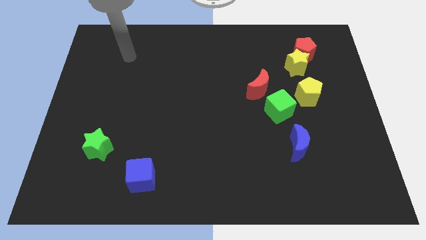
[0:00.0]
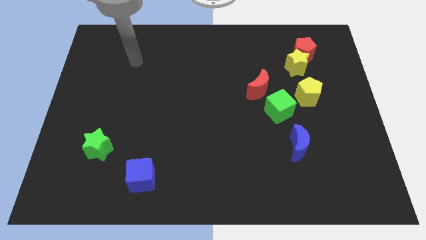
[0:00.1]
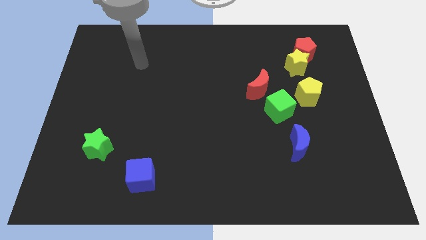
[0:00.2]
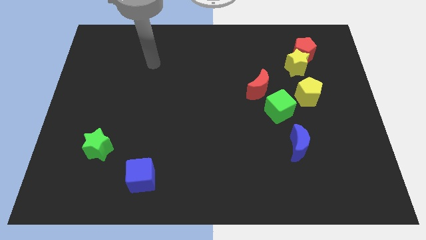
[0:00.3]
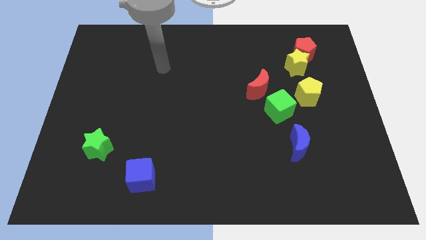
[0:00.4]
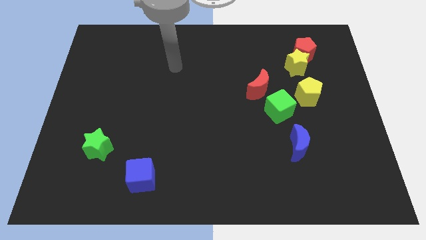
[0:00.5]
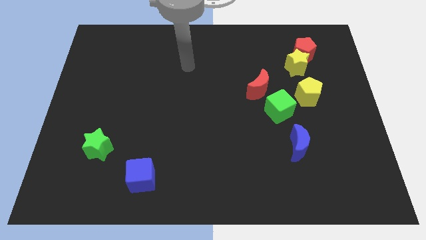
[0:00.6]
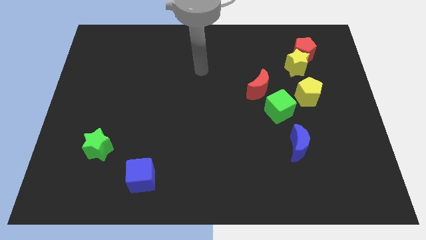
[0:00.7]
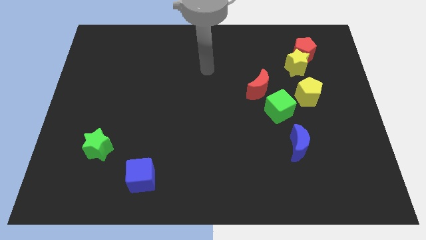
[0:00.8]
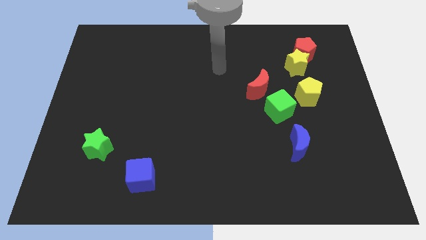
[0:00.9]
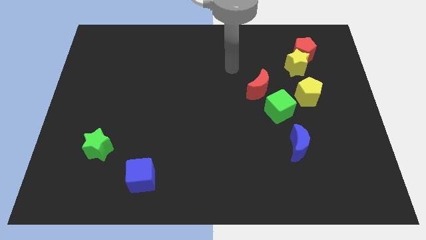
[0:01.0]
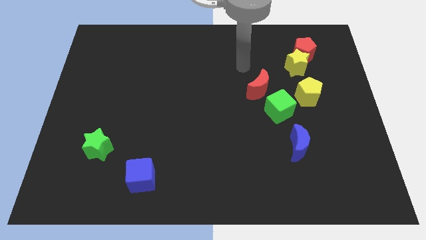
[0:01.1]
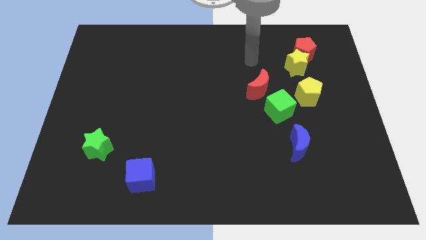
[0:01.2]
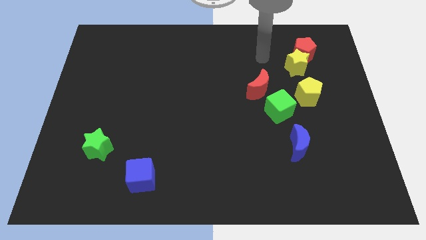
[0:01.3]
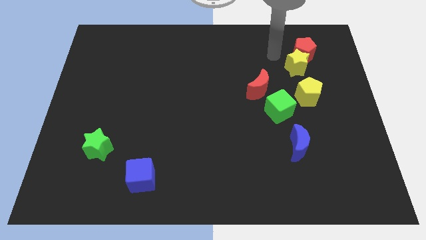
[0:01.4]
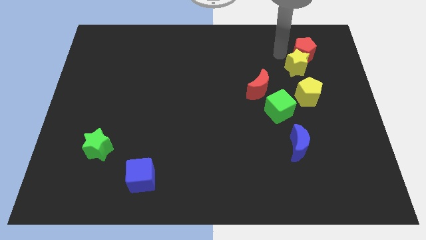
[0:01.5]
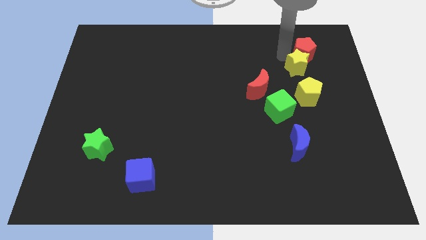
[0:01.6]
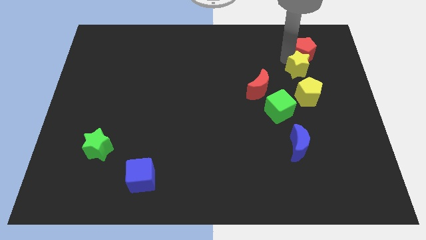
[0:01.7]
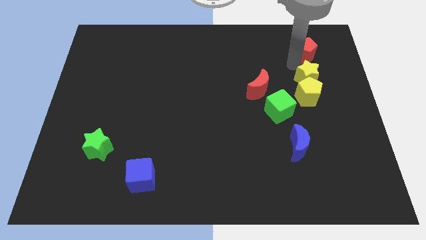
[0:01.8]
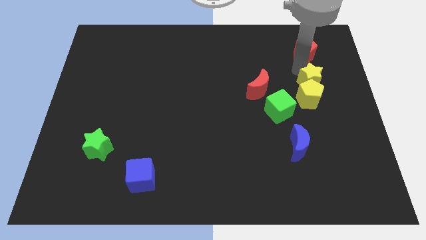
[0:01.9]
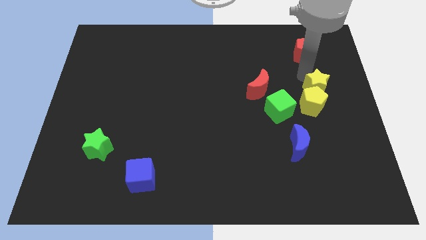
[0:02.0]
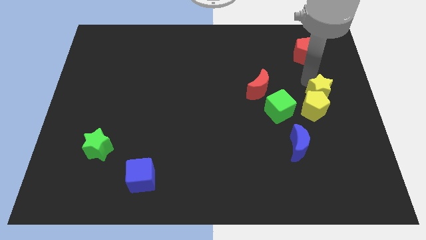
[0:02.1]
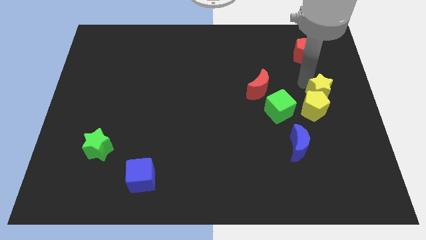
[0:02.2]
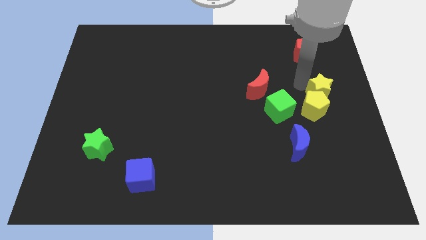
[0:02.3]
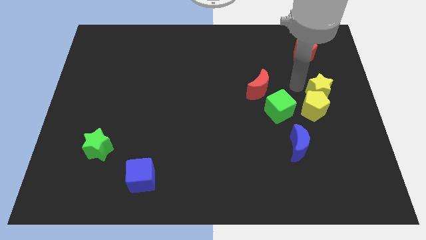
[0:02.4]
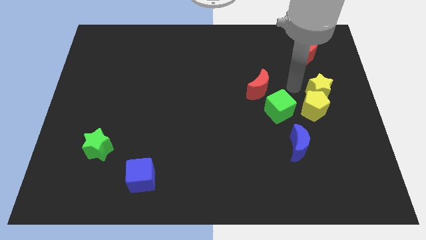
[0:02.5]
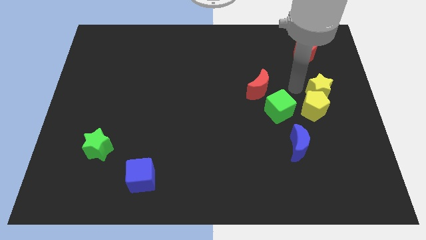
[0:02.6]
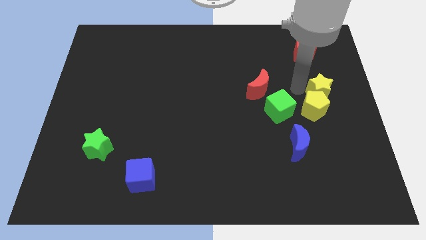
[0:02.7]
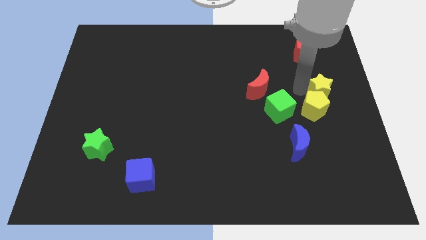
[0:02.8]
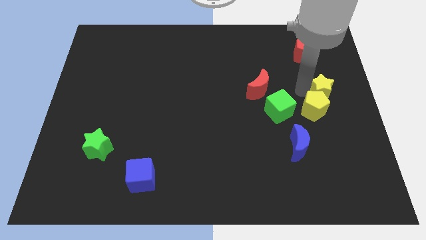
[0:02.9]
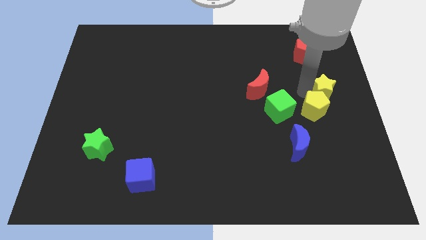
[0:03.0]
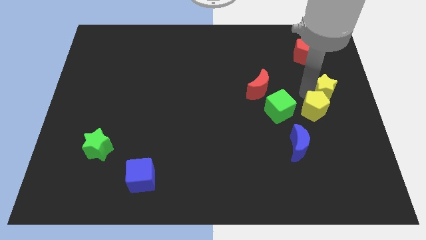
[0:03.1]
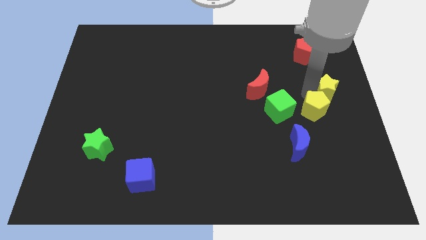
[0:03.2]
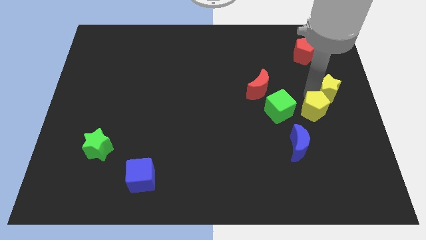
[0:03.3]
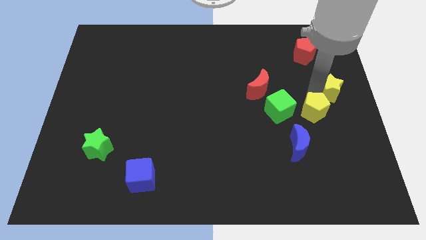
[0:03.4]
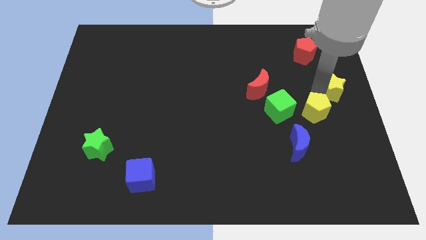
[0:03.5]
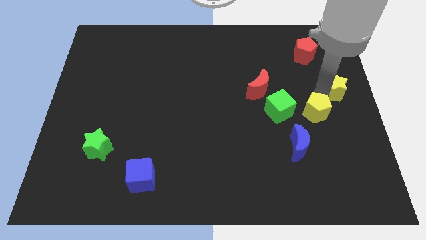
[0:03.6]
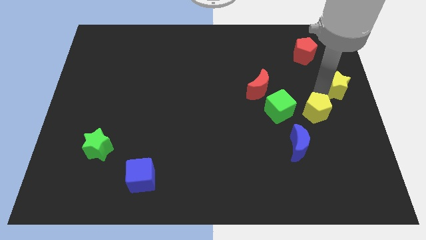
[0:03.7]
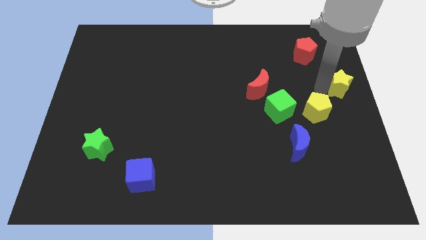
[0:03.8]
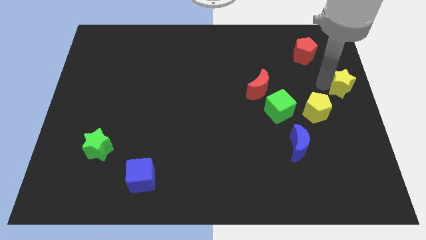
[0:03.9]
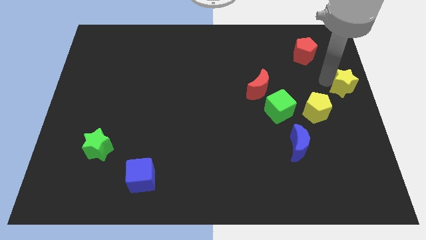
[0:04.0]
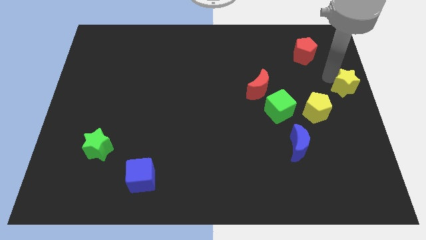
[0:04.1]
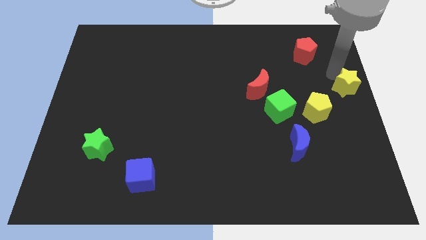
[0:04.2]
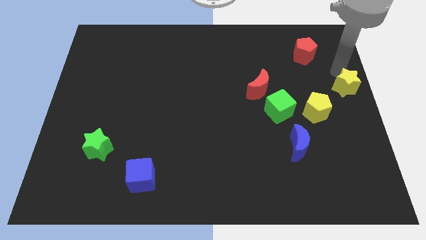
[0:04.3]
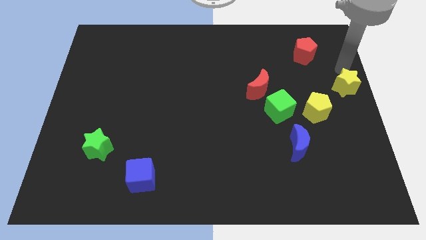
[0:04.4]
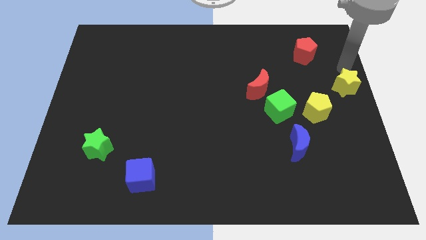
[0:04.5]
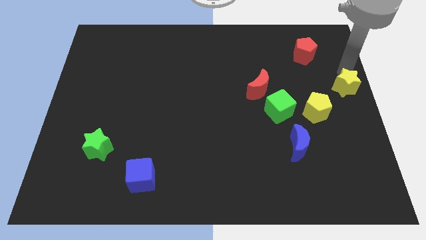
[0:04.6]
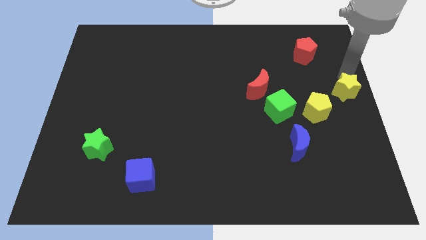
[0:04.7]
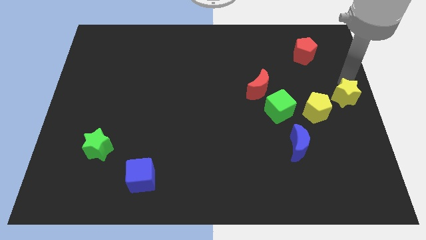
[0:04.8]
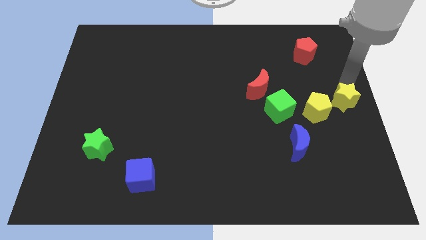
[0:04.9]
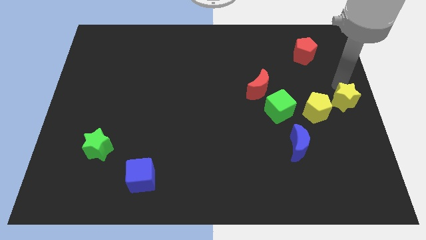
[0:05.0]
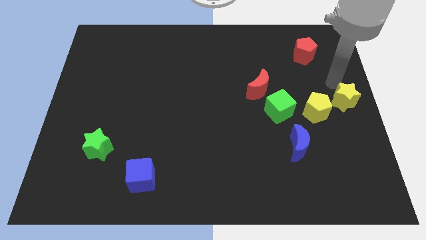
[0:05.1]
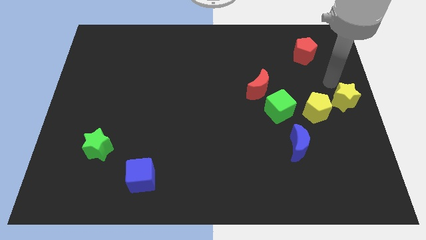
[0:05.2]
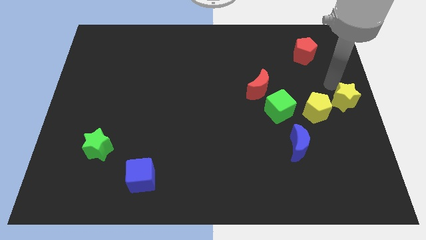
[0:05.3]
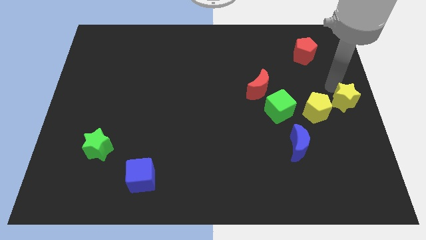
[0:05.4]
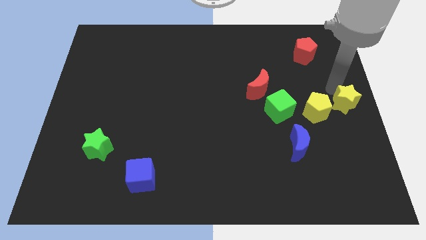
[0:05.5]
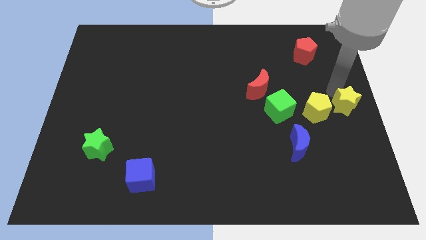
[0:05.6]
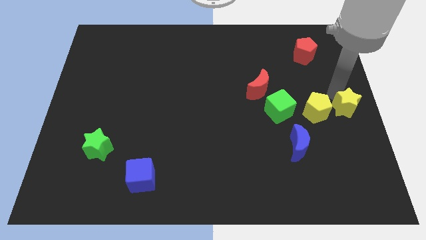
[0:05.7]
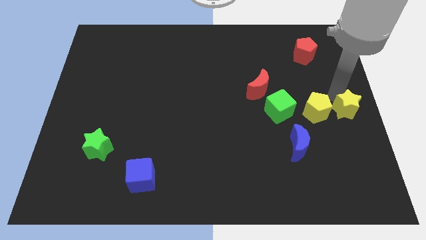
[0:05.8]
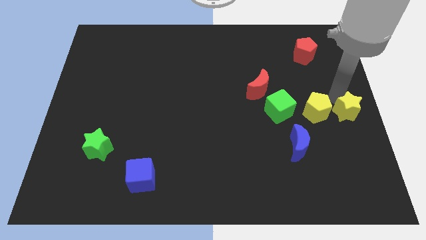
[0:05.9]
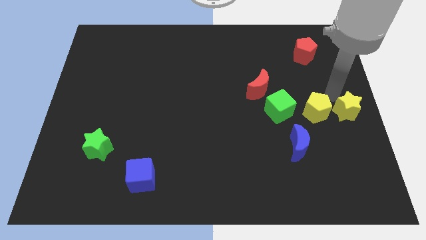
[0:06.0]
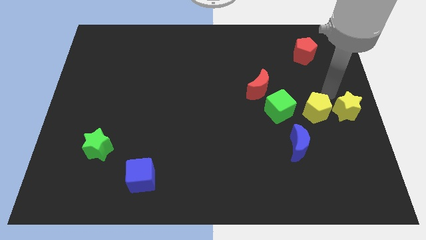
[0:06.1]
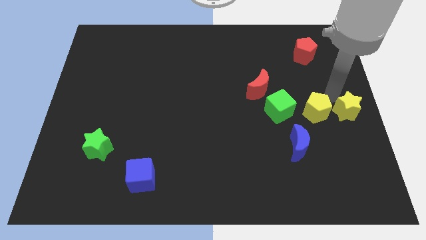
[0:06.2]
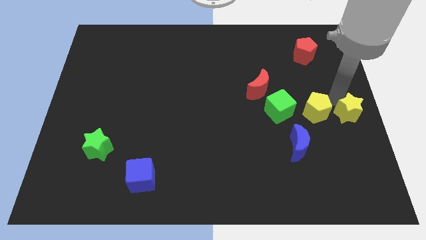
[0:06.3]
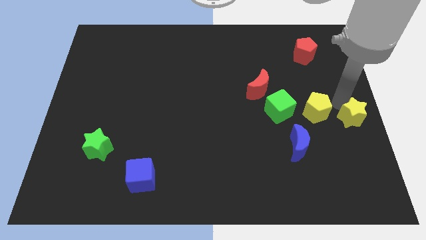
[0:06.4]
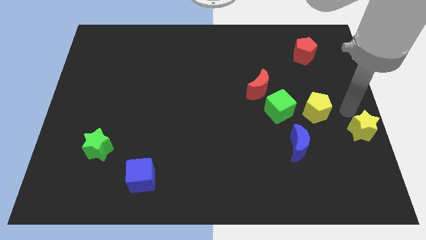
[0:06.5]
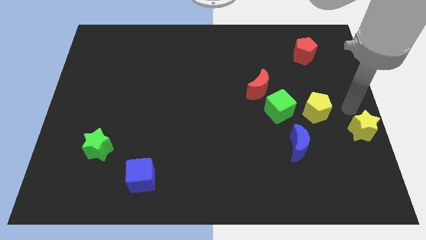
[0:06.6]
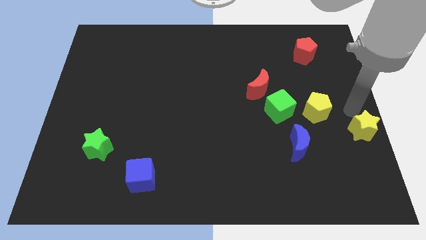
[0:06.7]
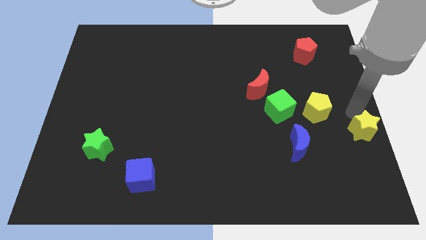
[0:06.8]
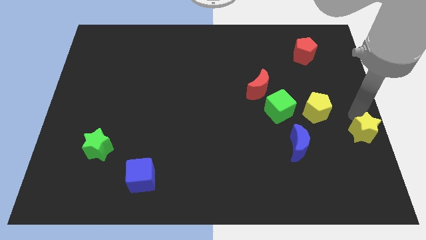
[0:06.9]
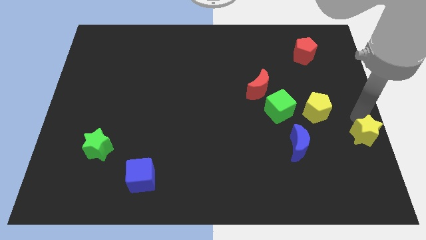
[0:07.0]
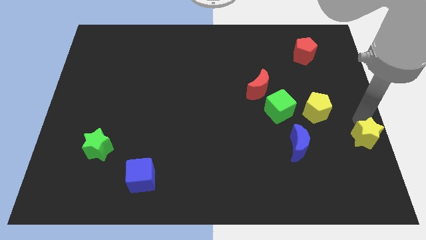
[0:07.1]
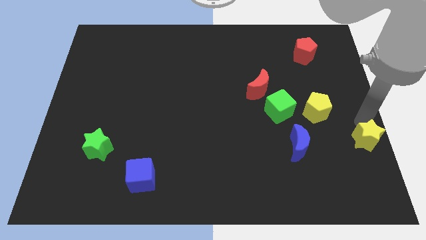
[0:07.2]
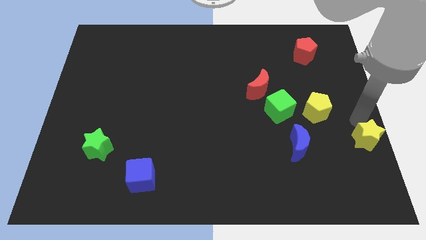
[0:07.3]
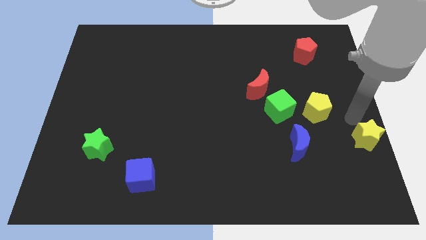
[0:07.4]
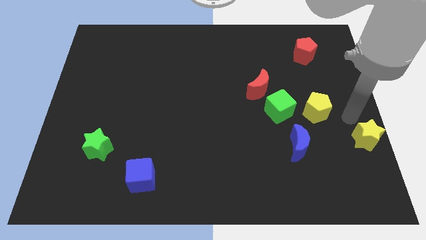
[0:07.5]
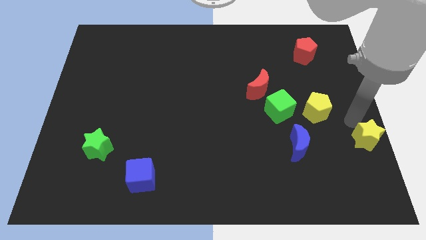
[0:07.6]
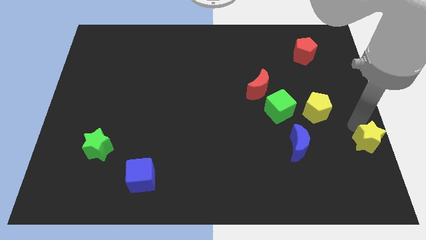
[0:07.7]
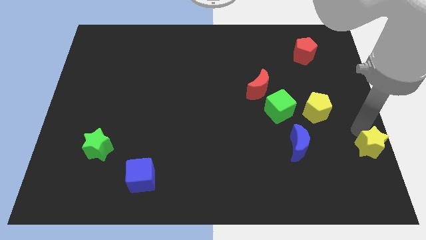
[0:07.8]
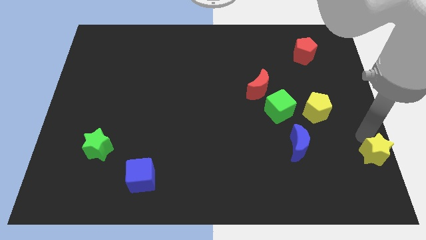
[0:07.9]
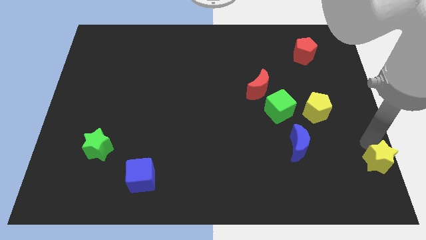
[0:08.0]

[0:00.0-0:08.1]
move the yellow star to the lower right corner
